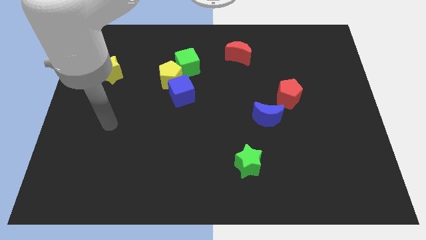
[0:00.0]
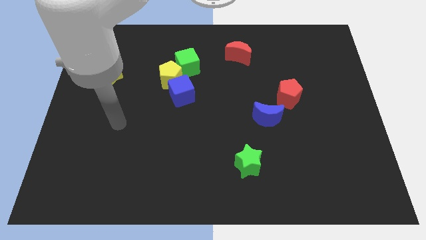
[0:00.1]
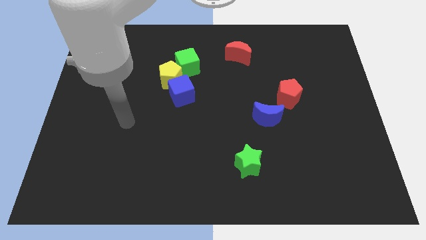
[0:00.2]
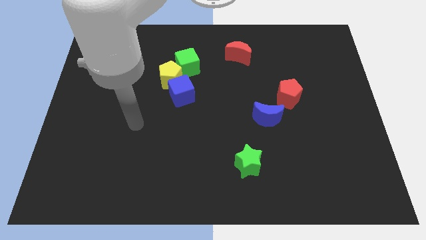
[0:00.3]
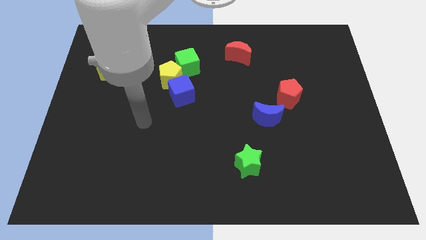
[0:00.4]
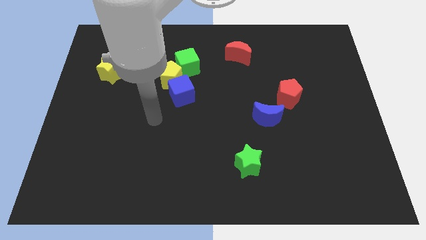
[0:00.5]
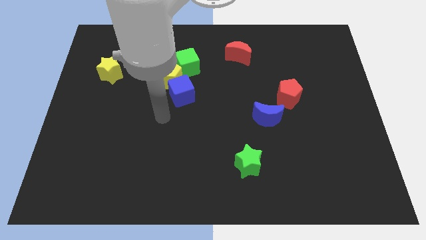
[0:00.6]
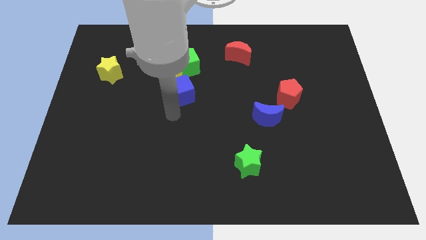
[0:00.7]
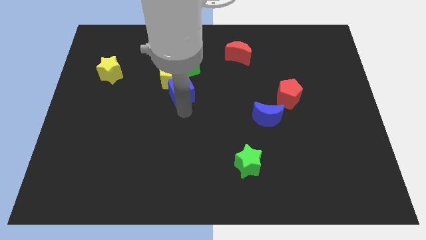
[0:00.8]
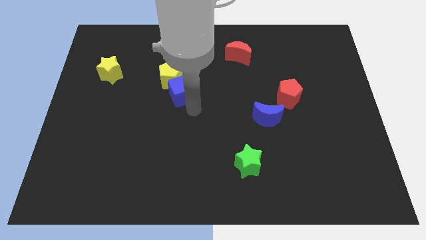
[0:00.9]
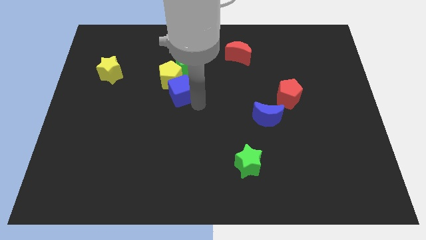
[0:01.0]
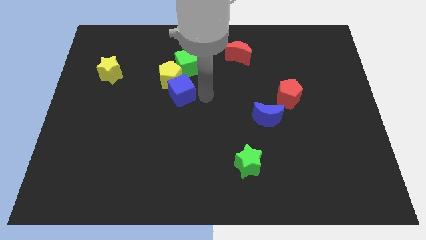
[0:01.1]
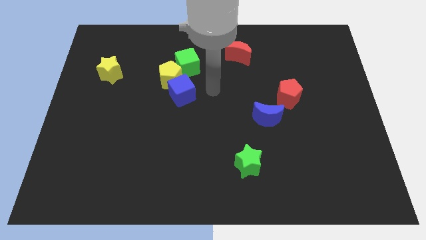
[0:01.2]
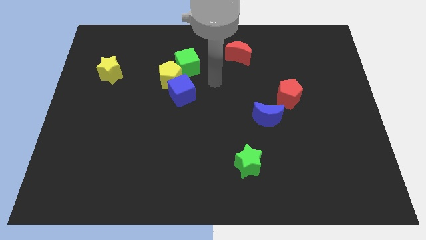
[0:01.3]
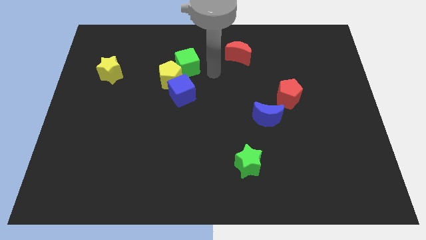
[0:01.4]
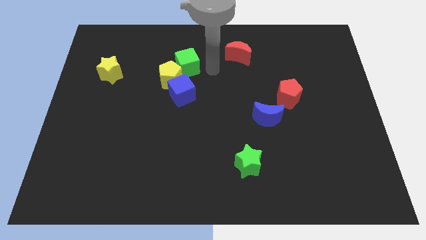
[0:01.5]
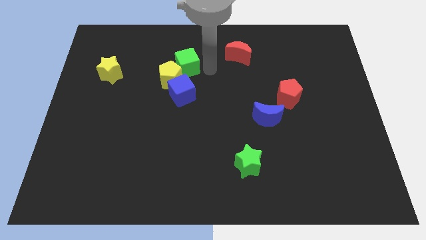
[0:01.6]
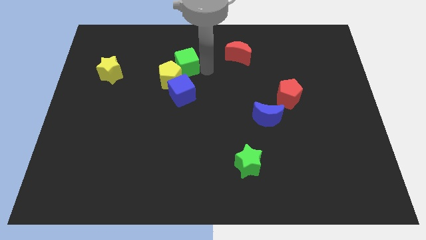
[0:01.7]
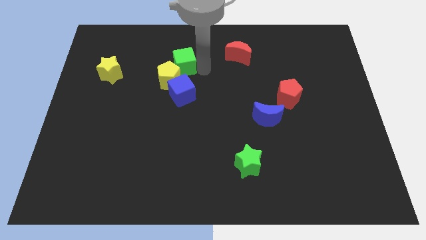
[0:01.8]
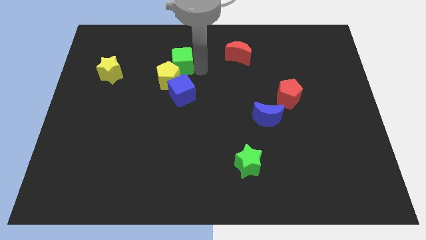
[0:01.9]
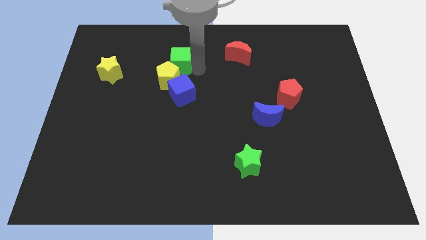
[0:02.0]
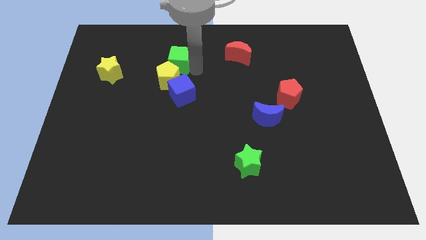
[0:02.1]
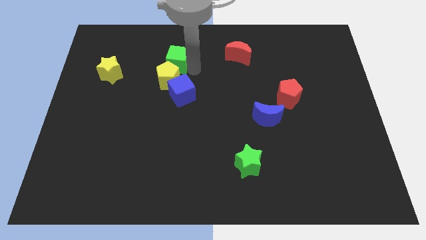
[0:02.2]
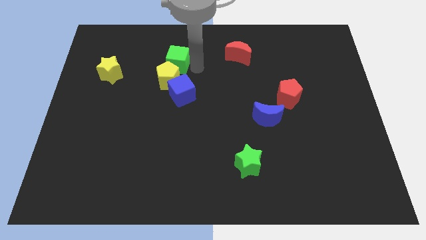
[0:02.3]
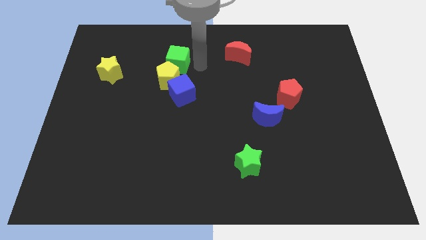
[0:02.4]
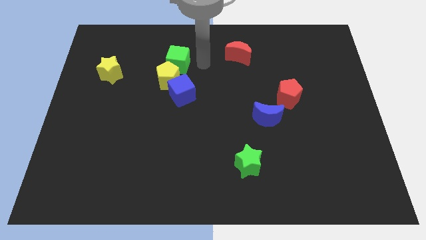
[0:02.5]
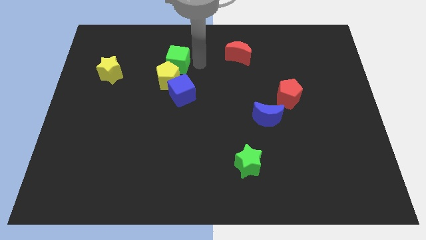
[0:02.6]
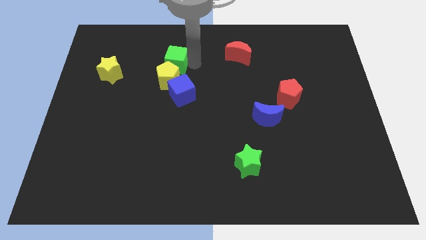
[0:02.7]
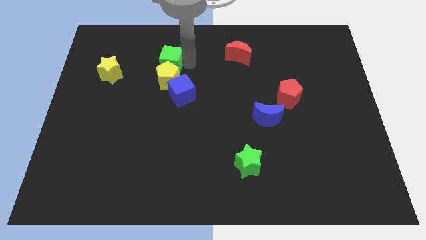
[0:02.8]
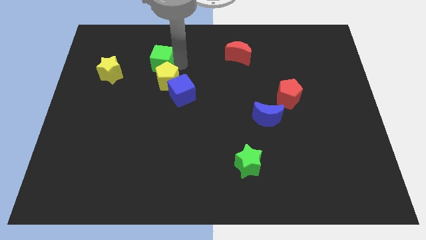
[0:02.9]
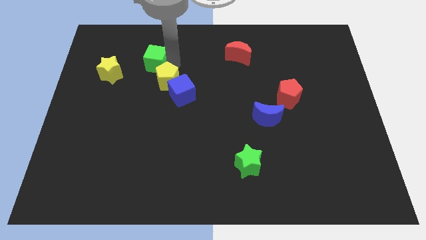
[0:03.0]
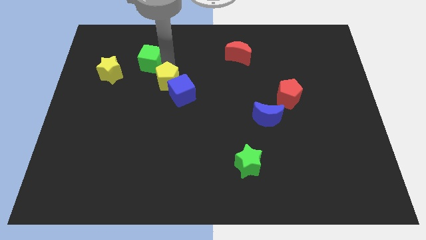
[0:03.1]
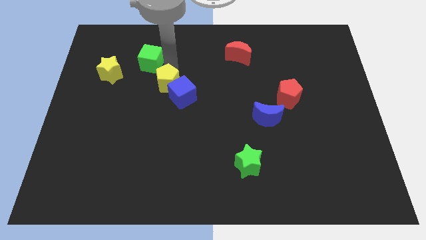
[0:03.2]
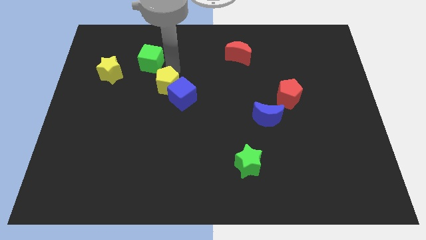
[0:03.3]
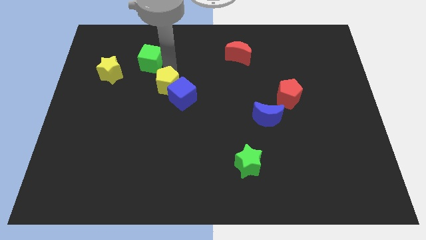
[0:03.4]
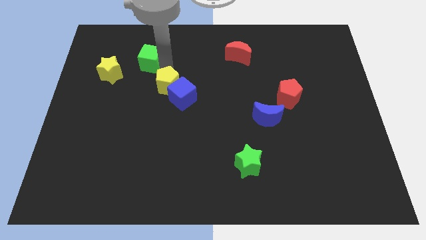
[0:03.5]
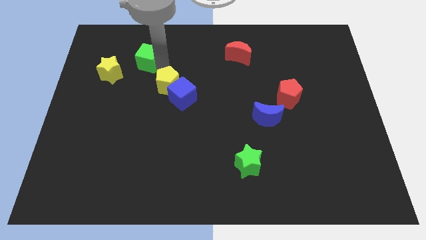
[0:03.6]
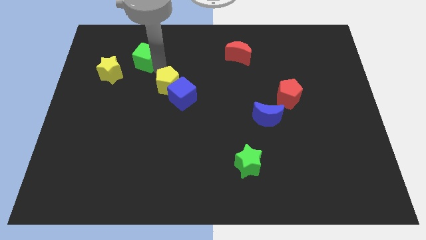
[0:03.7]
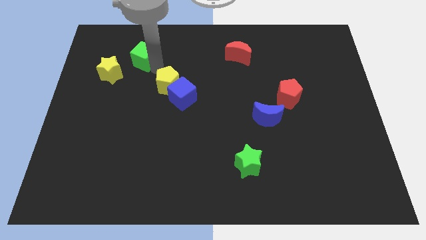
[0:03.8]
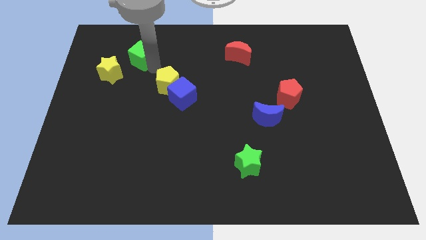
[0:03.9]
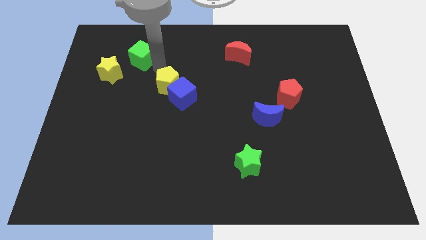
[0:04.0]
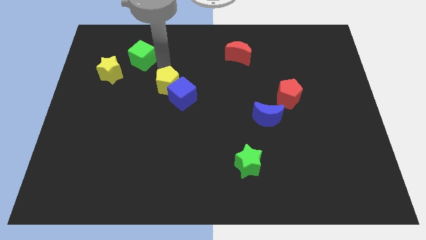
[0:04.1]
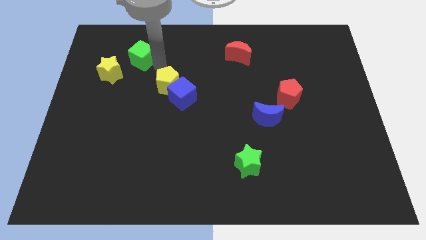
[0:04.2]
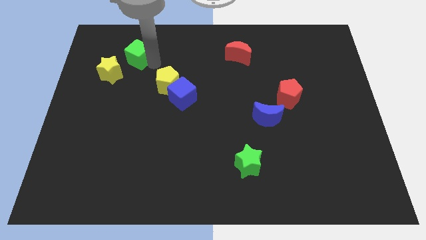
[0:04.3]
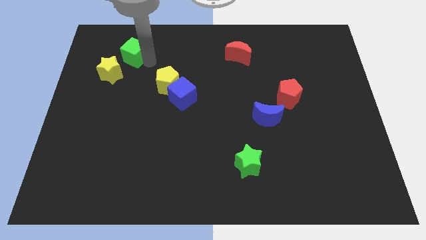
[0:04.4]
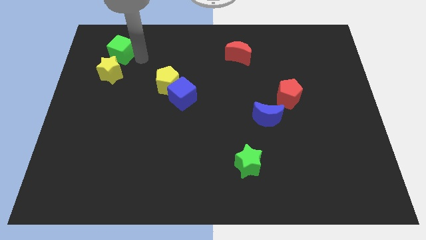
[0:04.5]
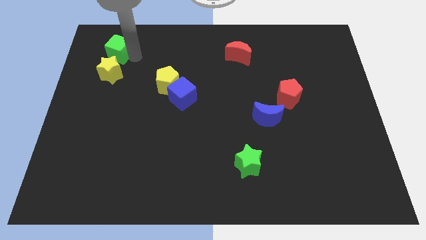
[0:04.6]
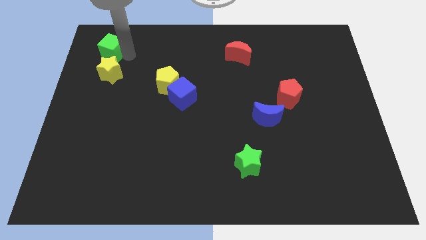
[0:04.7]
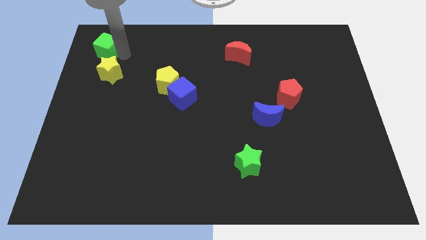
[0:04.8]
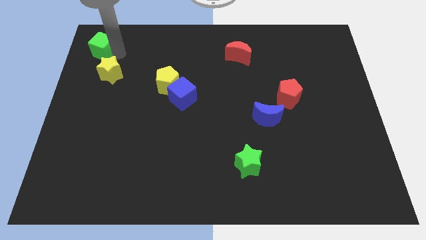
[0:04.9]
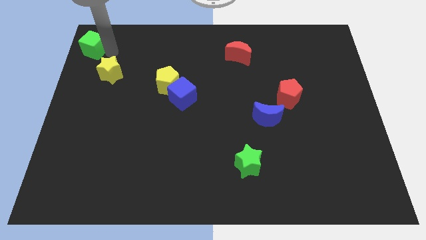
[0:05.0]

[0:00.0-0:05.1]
put the green cube to the top left corner

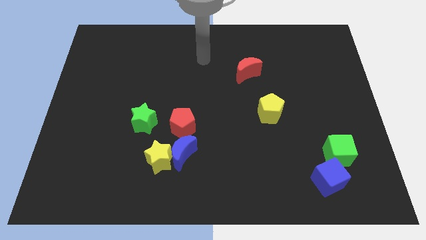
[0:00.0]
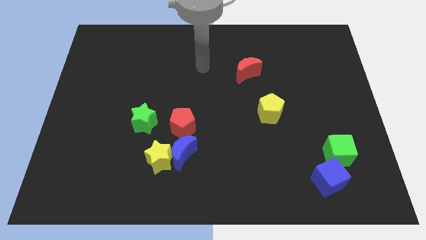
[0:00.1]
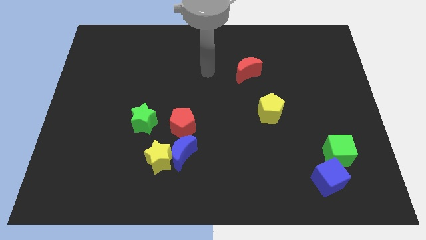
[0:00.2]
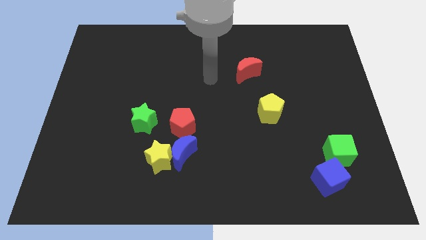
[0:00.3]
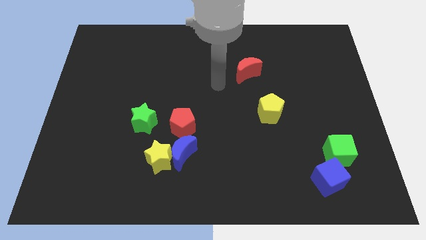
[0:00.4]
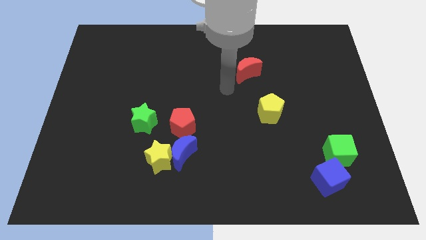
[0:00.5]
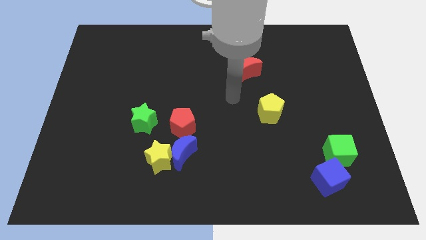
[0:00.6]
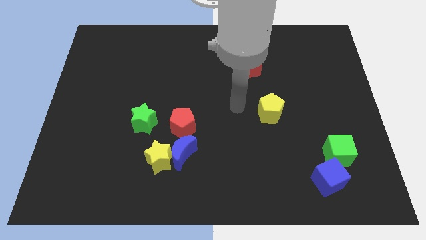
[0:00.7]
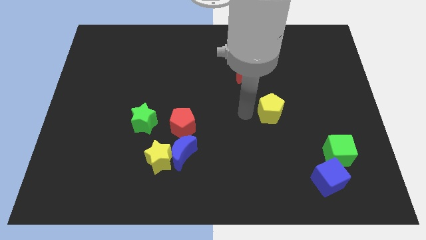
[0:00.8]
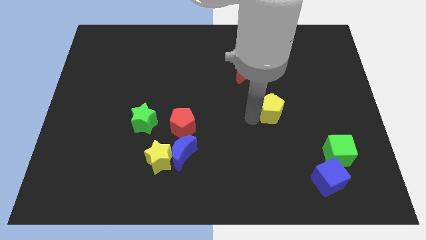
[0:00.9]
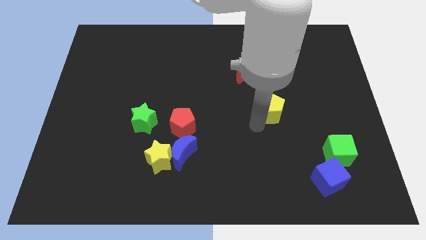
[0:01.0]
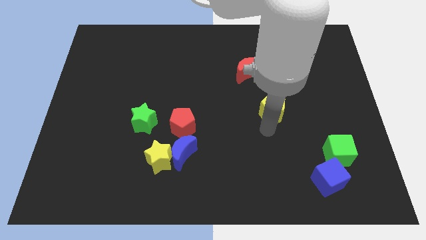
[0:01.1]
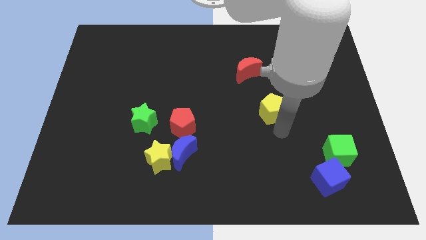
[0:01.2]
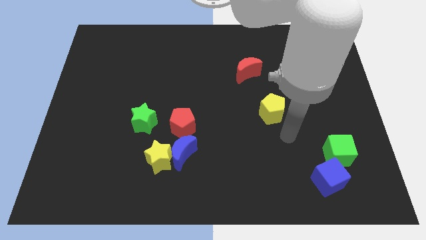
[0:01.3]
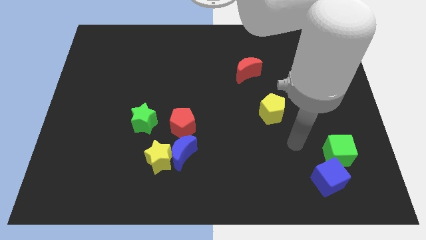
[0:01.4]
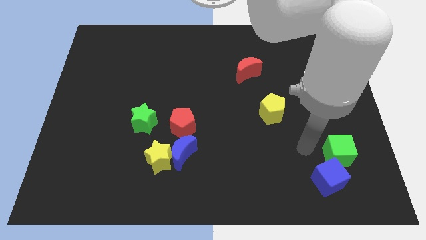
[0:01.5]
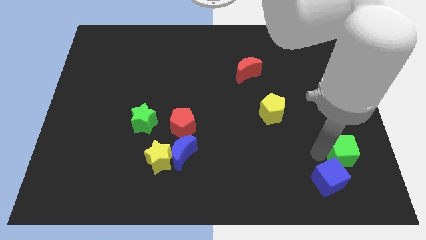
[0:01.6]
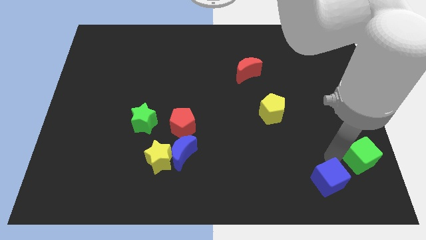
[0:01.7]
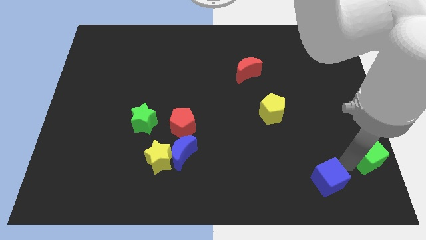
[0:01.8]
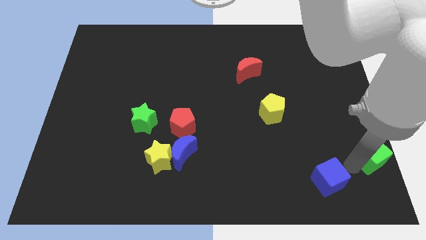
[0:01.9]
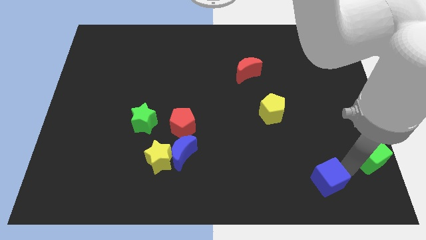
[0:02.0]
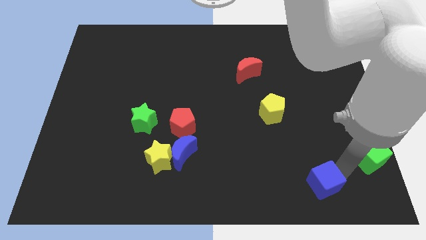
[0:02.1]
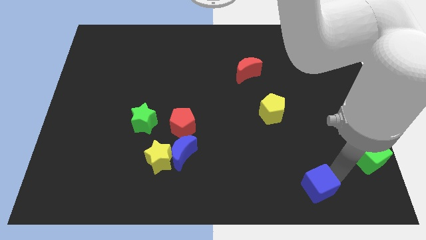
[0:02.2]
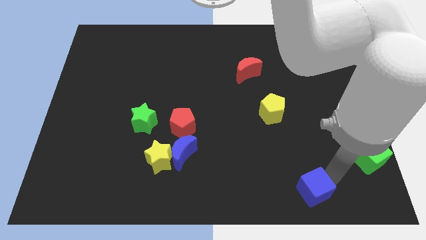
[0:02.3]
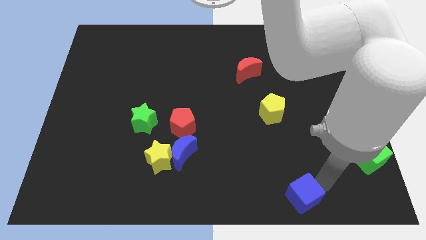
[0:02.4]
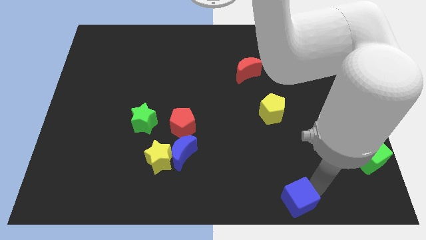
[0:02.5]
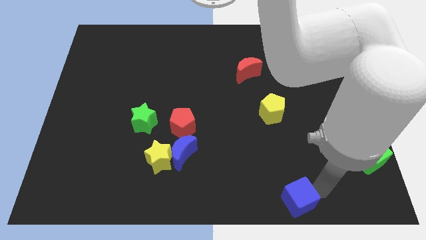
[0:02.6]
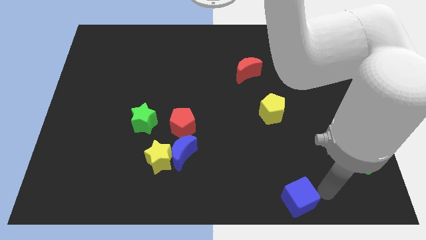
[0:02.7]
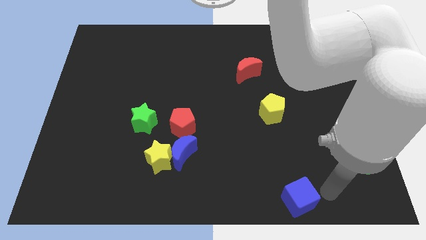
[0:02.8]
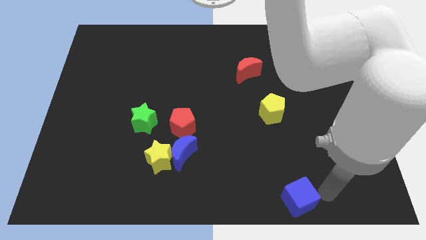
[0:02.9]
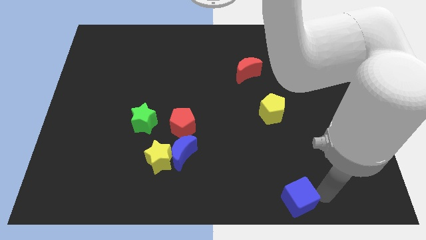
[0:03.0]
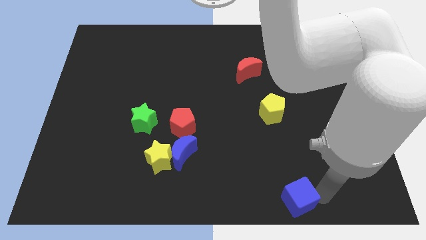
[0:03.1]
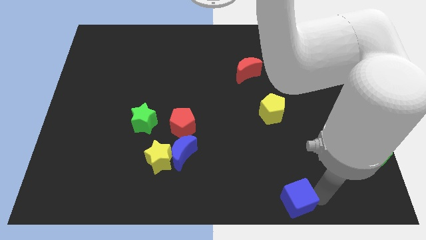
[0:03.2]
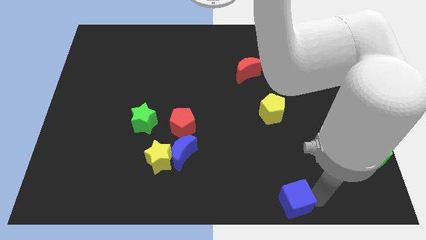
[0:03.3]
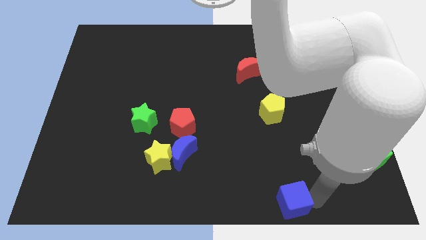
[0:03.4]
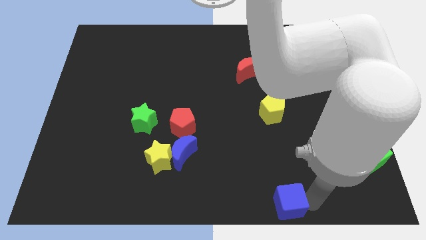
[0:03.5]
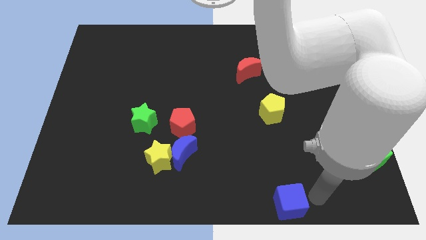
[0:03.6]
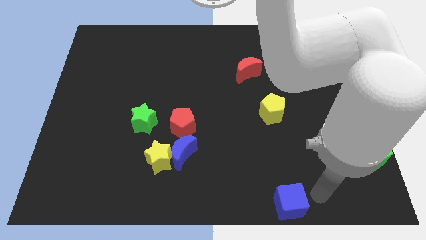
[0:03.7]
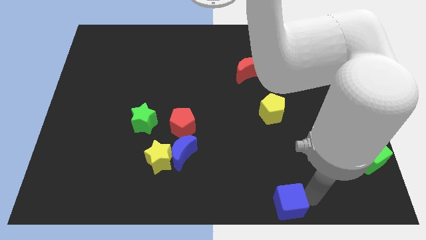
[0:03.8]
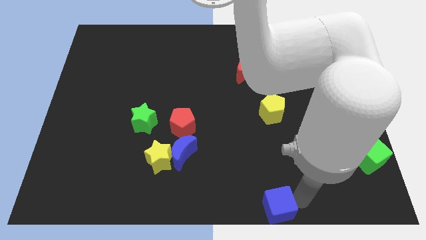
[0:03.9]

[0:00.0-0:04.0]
slide the blue cube to the bottom side
